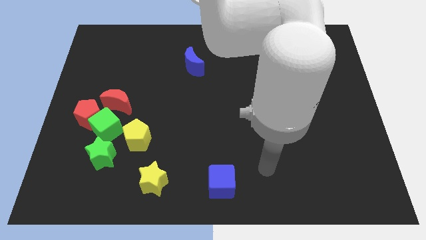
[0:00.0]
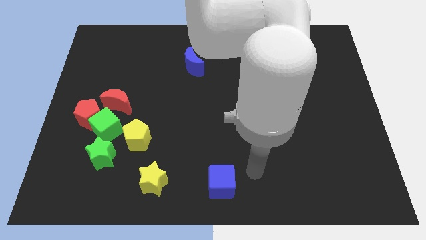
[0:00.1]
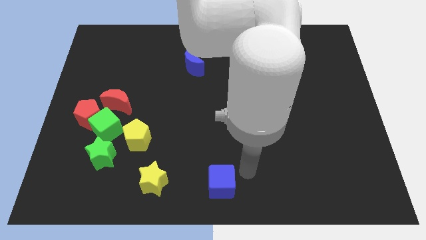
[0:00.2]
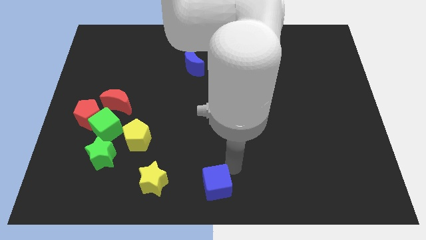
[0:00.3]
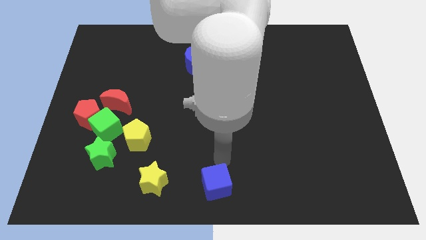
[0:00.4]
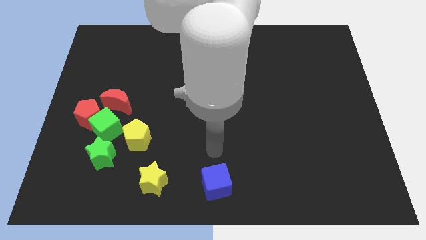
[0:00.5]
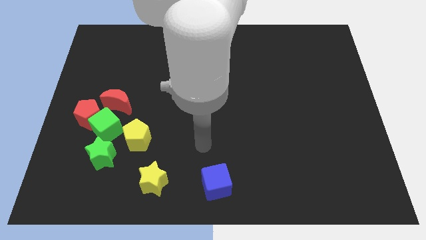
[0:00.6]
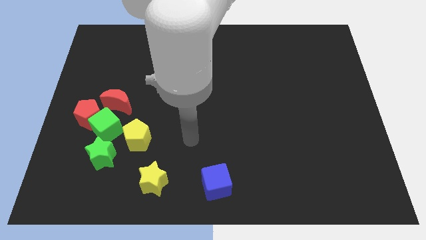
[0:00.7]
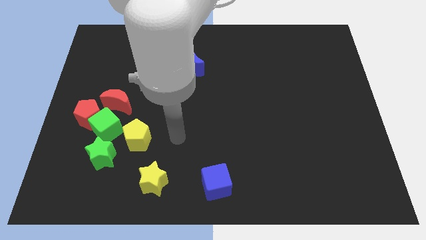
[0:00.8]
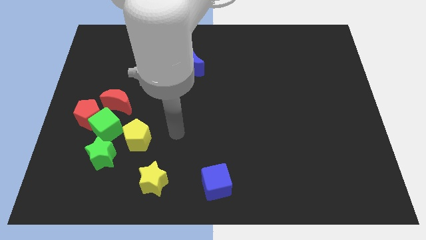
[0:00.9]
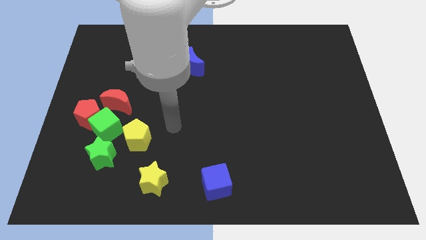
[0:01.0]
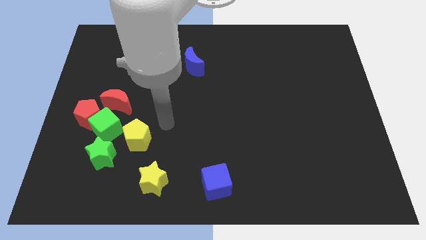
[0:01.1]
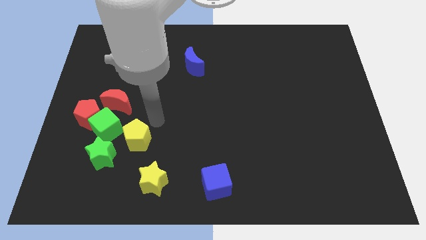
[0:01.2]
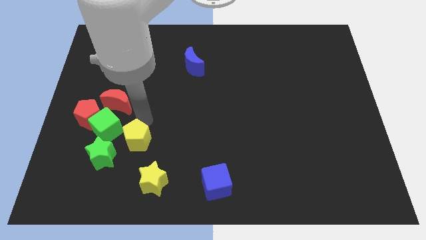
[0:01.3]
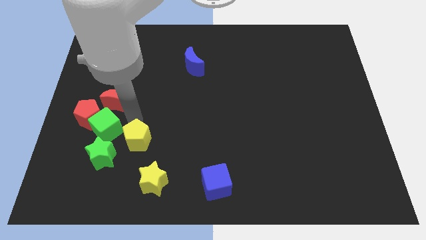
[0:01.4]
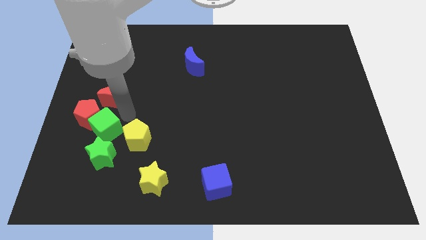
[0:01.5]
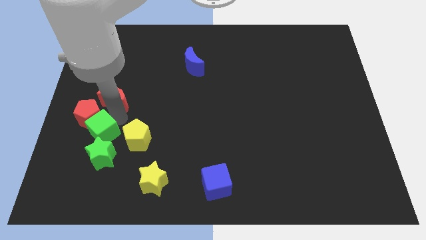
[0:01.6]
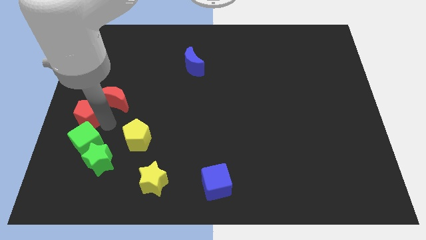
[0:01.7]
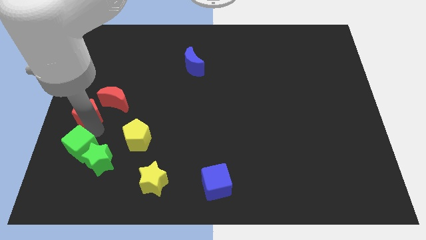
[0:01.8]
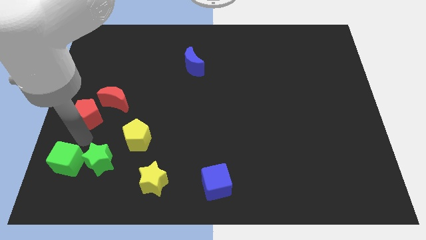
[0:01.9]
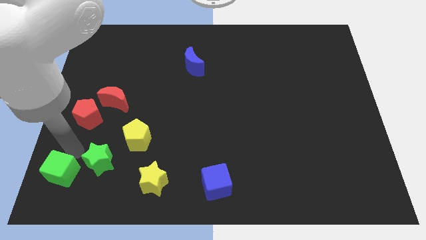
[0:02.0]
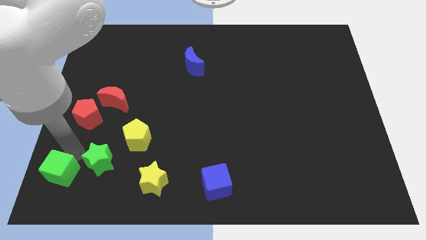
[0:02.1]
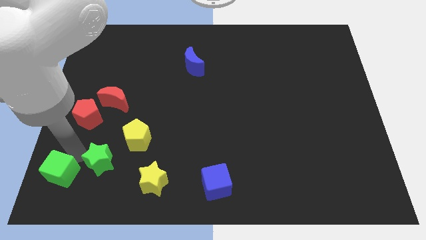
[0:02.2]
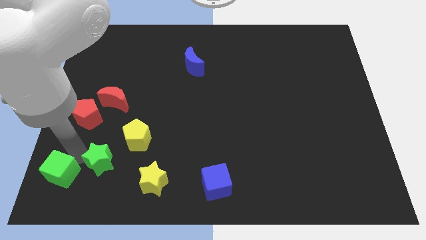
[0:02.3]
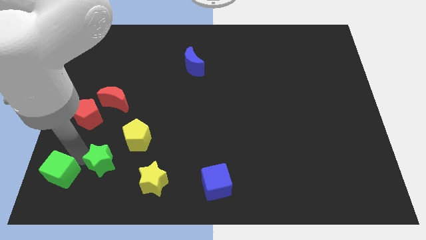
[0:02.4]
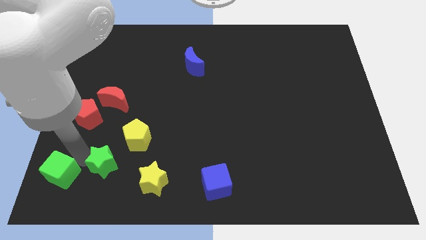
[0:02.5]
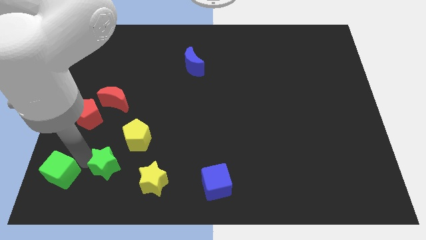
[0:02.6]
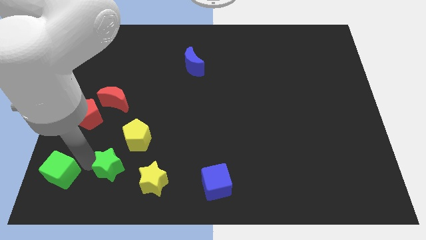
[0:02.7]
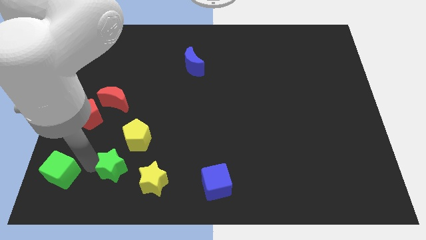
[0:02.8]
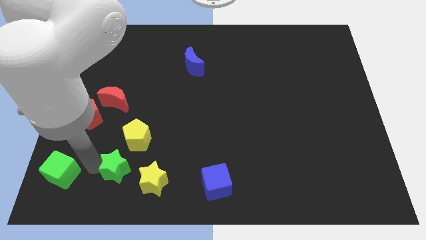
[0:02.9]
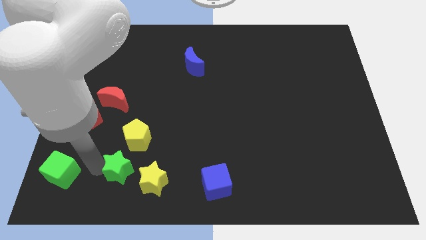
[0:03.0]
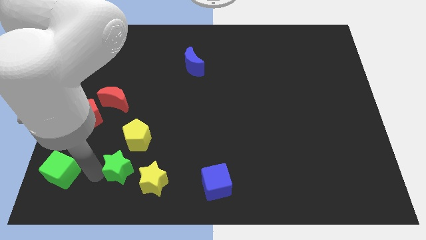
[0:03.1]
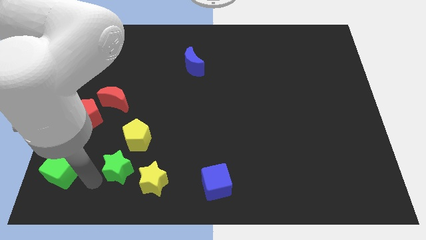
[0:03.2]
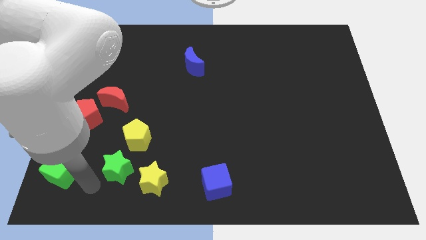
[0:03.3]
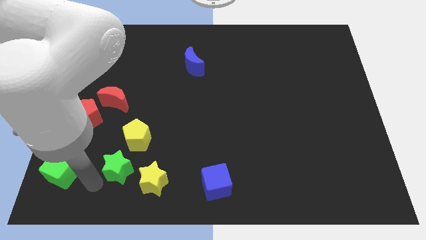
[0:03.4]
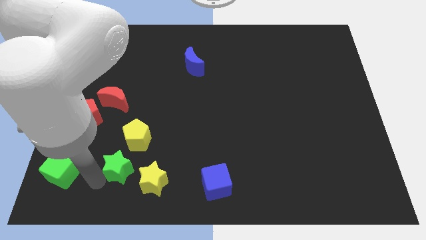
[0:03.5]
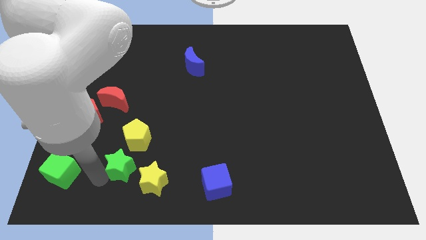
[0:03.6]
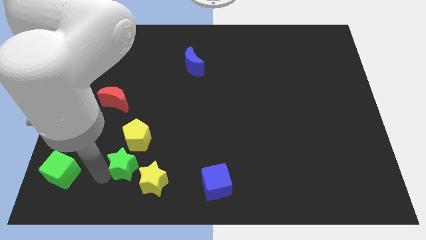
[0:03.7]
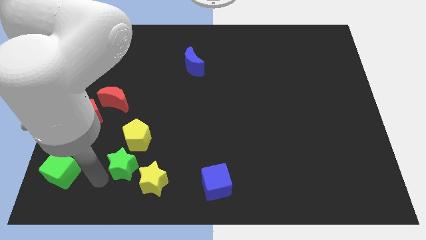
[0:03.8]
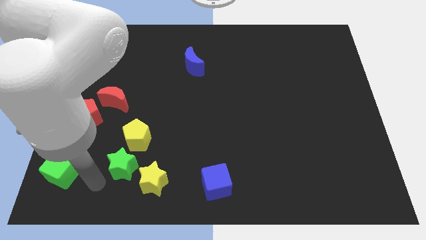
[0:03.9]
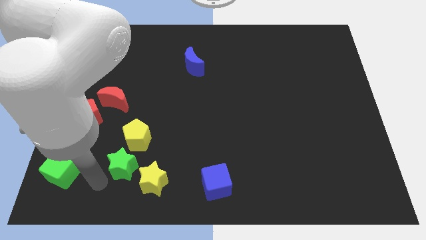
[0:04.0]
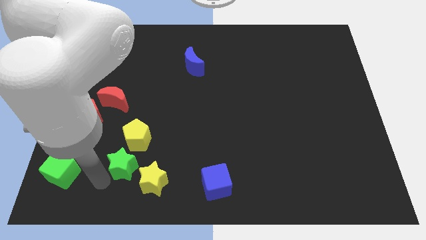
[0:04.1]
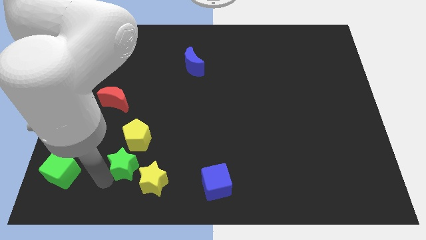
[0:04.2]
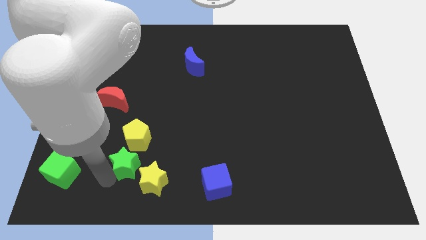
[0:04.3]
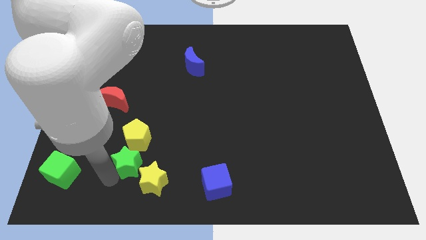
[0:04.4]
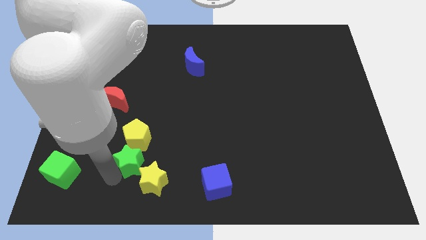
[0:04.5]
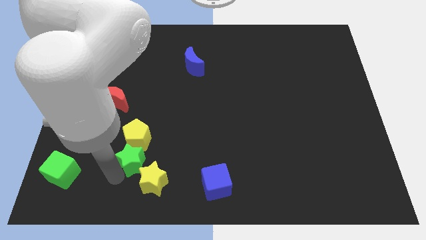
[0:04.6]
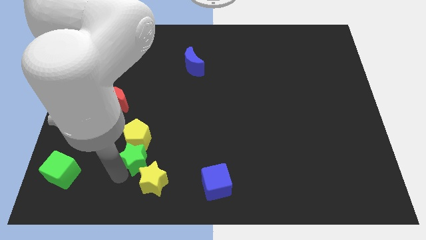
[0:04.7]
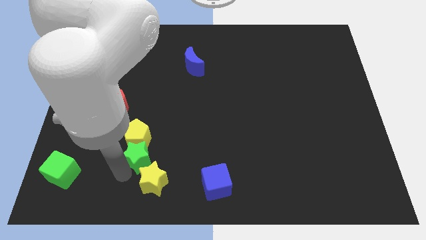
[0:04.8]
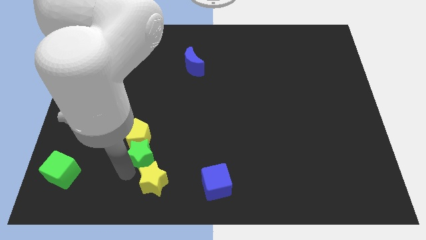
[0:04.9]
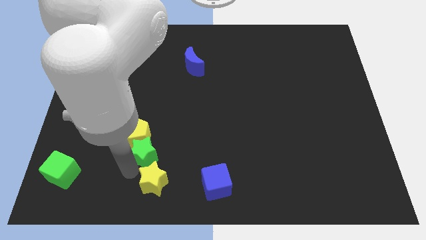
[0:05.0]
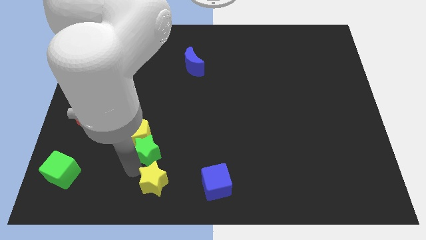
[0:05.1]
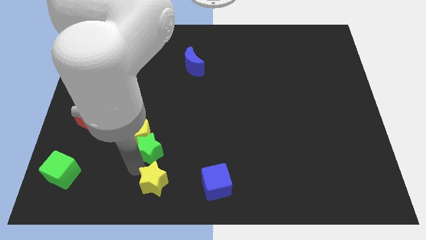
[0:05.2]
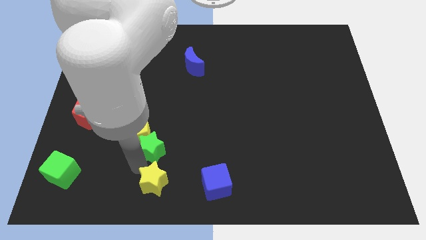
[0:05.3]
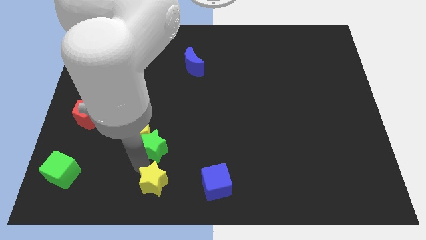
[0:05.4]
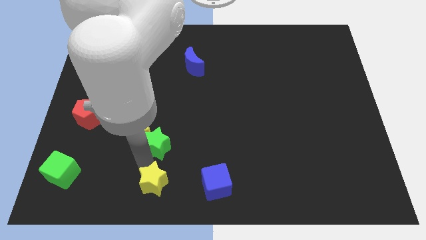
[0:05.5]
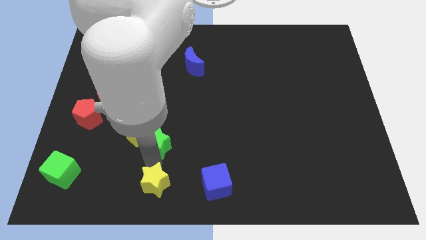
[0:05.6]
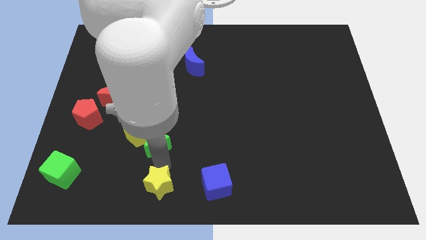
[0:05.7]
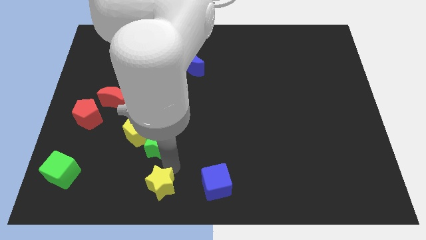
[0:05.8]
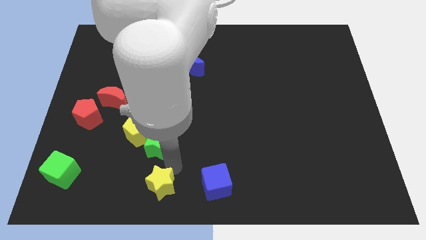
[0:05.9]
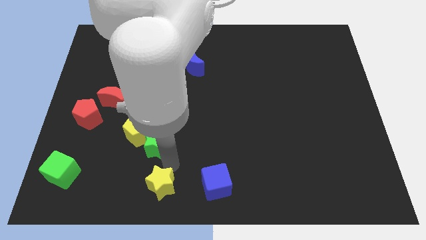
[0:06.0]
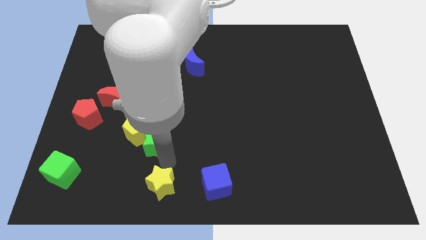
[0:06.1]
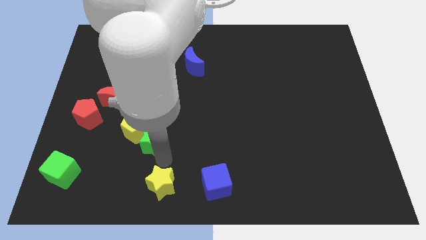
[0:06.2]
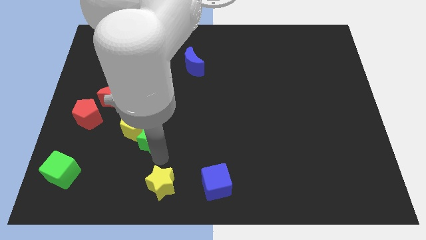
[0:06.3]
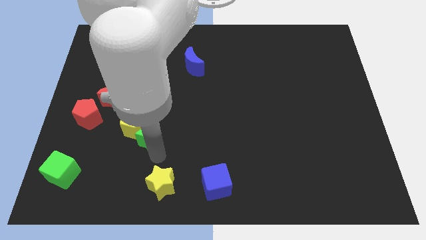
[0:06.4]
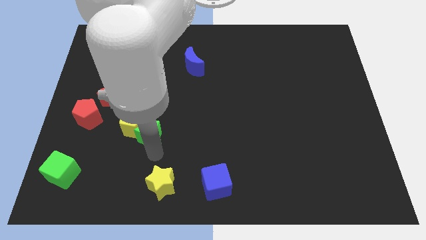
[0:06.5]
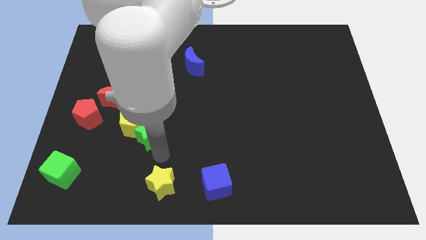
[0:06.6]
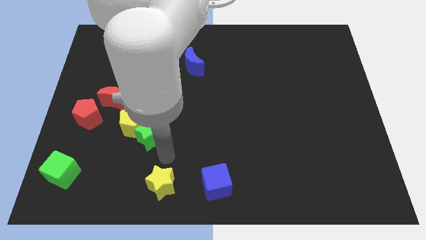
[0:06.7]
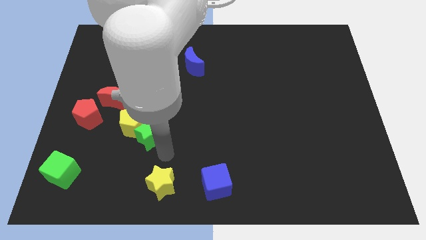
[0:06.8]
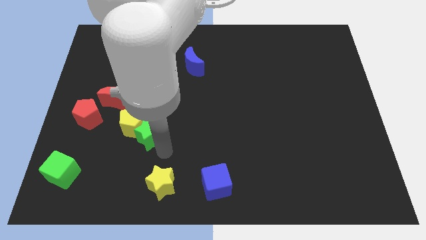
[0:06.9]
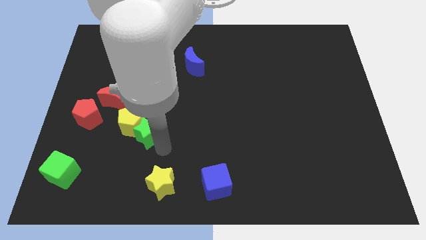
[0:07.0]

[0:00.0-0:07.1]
push the green star to the bottom right side of the red moon

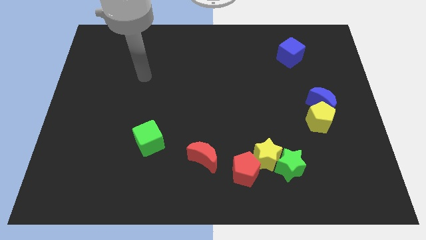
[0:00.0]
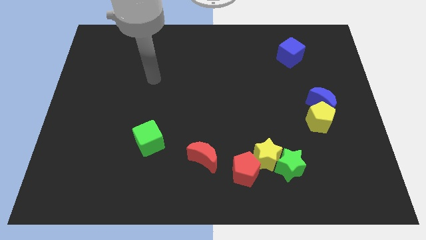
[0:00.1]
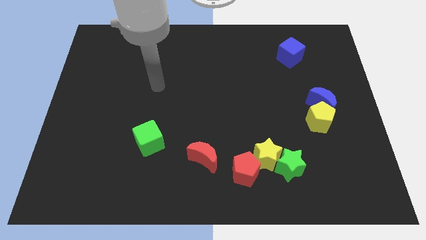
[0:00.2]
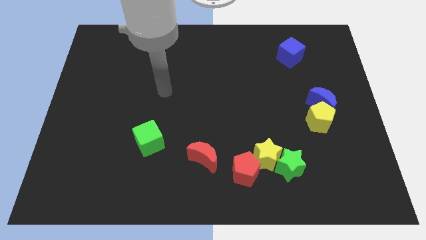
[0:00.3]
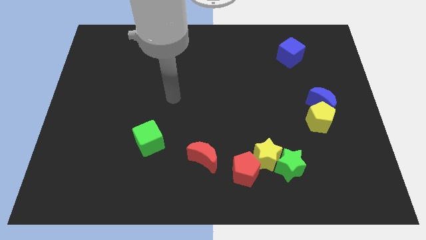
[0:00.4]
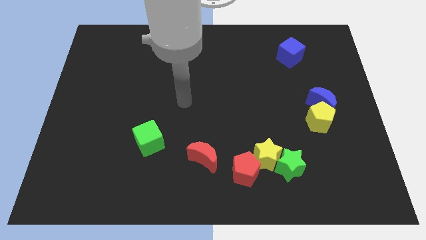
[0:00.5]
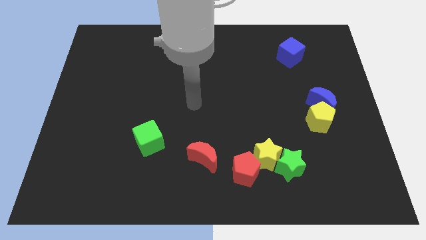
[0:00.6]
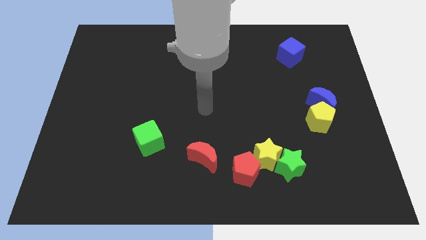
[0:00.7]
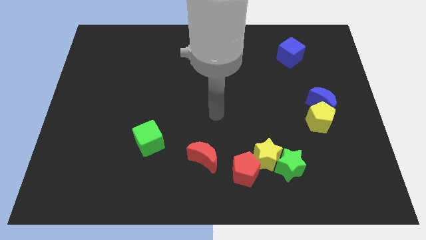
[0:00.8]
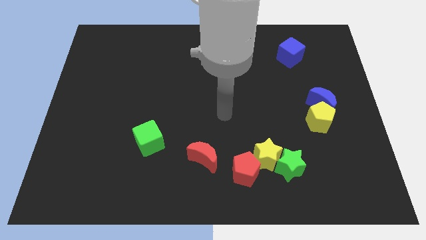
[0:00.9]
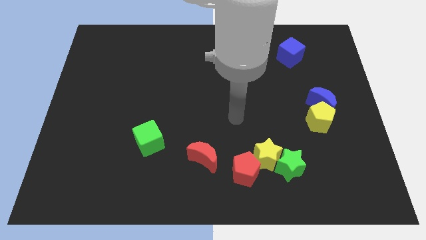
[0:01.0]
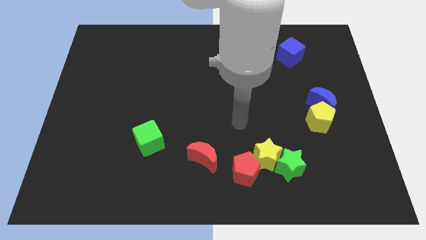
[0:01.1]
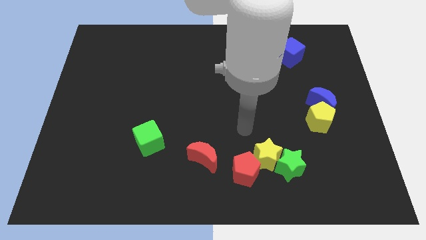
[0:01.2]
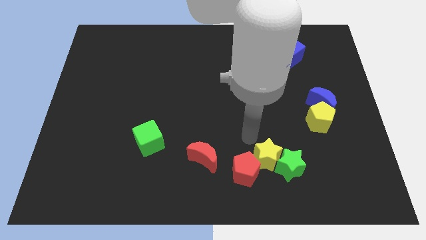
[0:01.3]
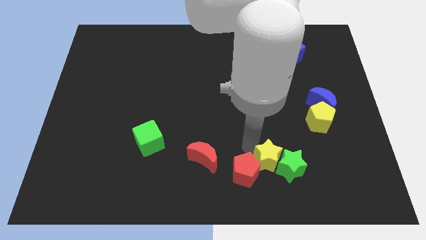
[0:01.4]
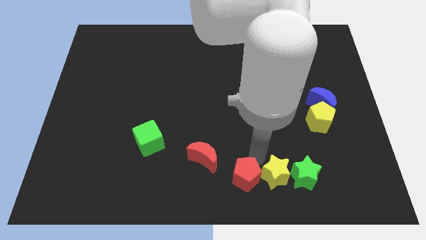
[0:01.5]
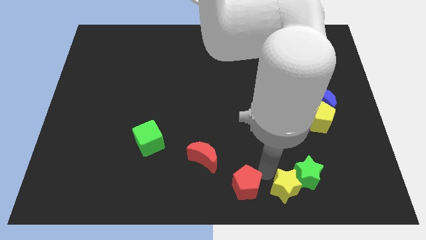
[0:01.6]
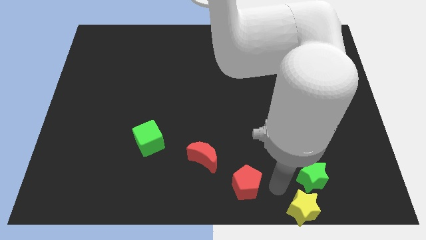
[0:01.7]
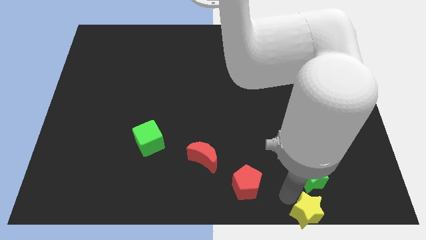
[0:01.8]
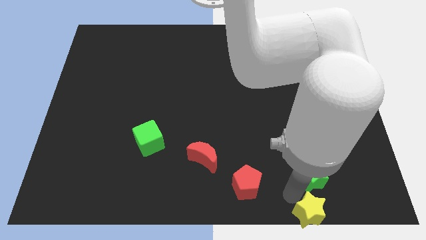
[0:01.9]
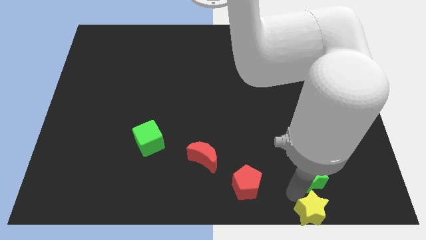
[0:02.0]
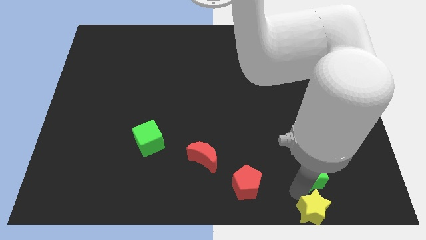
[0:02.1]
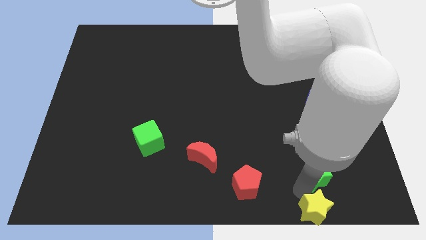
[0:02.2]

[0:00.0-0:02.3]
move the green star to the bottom of the yellow pentagon
